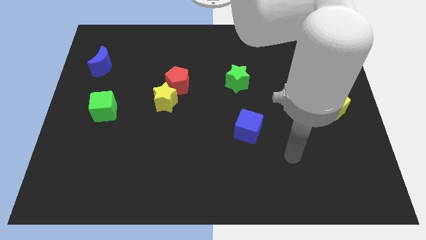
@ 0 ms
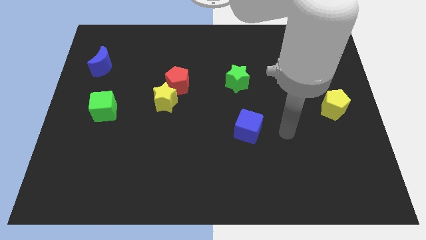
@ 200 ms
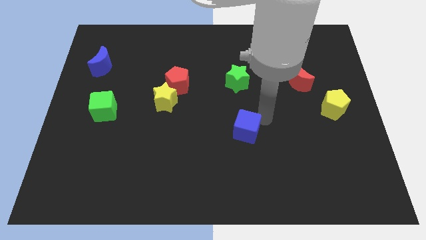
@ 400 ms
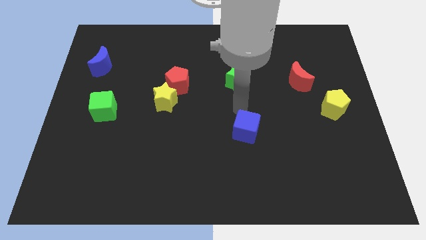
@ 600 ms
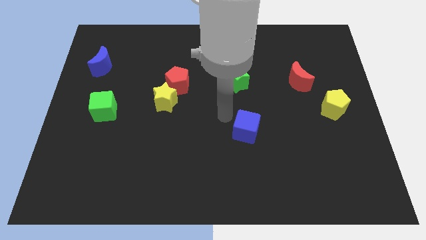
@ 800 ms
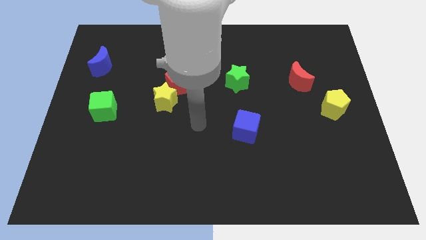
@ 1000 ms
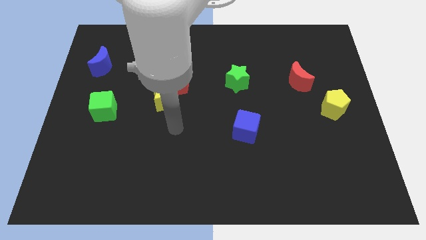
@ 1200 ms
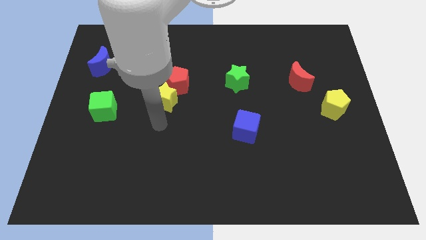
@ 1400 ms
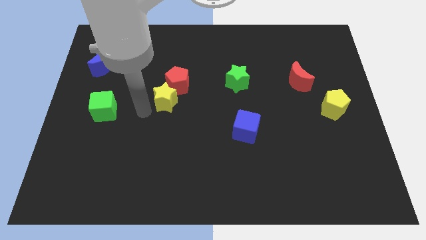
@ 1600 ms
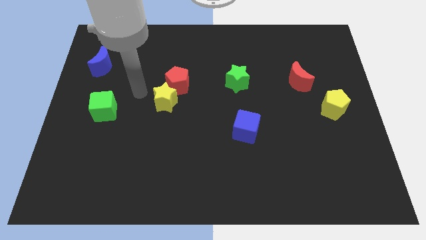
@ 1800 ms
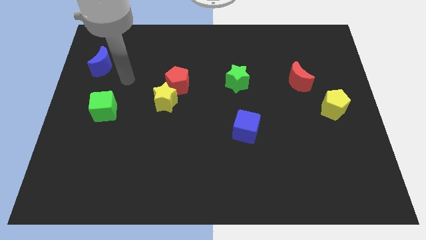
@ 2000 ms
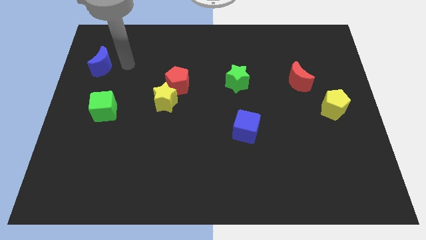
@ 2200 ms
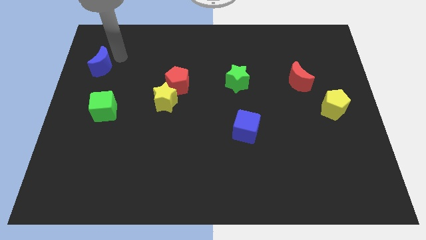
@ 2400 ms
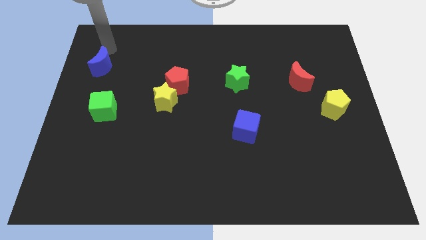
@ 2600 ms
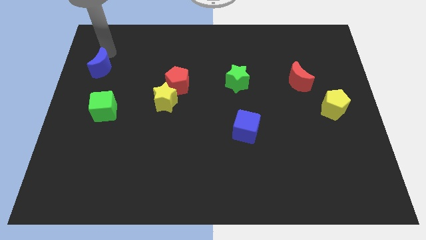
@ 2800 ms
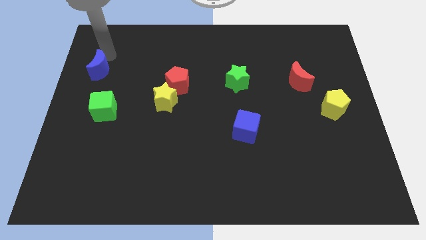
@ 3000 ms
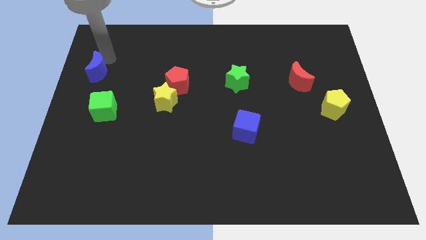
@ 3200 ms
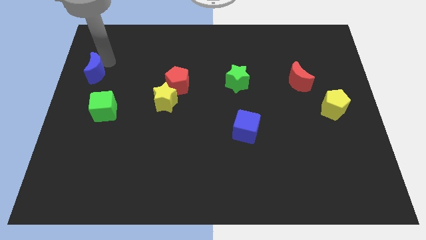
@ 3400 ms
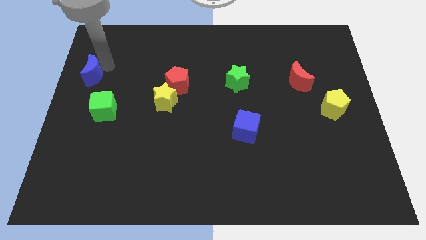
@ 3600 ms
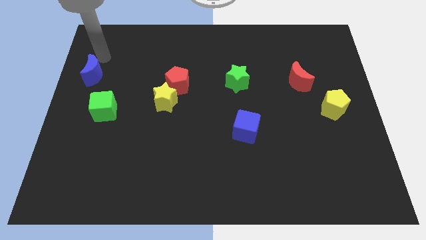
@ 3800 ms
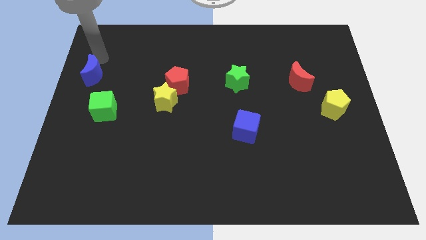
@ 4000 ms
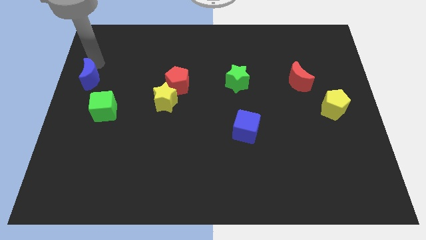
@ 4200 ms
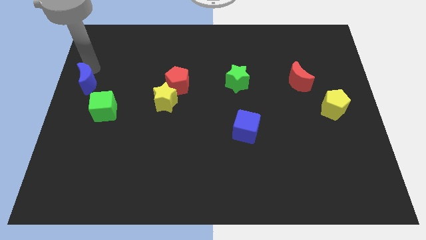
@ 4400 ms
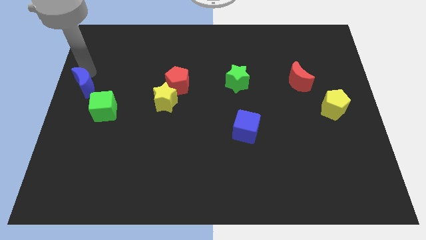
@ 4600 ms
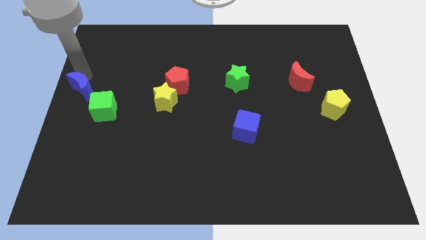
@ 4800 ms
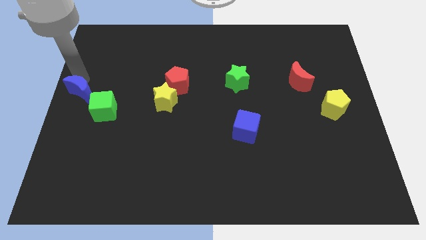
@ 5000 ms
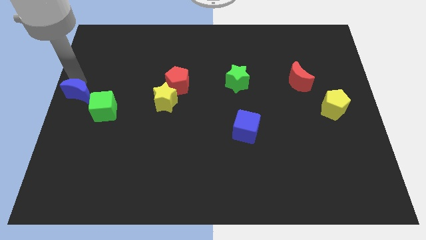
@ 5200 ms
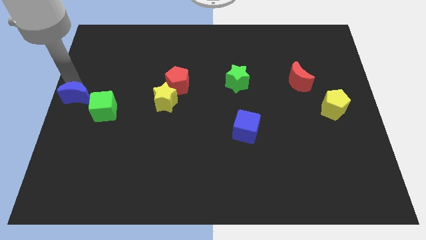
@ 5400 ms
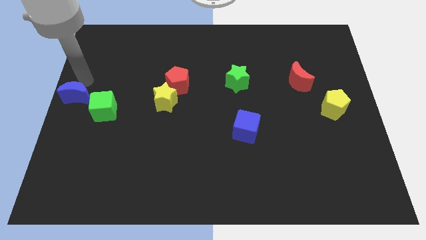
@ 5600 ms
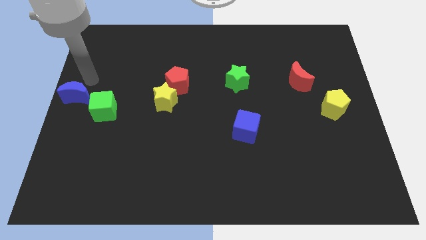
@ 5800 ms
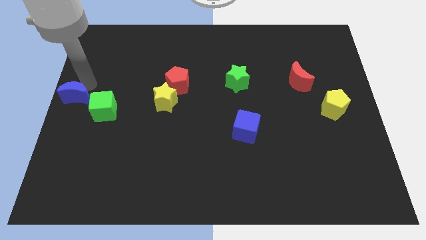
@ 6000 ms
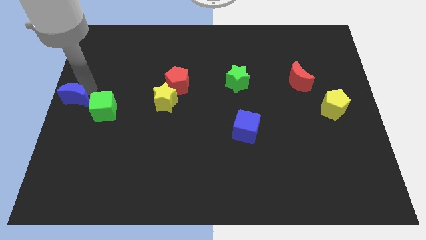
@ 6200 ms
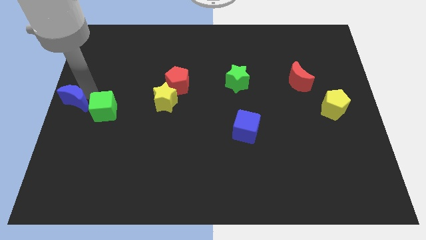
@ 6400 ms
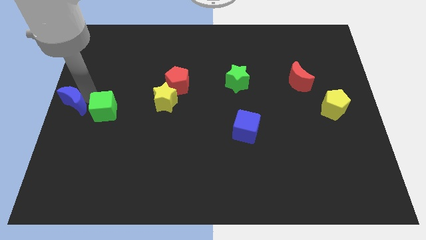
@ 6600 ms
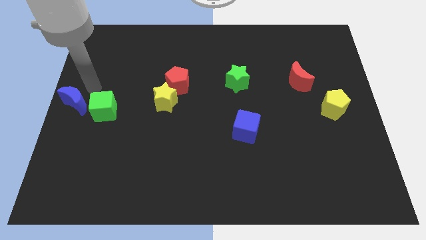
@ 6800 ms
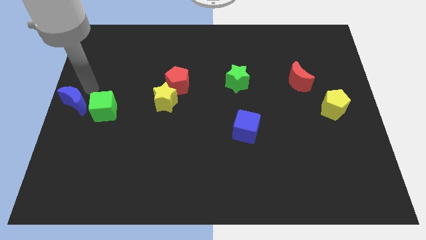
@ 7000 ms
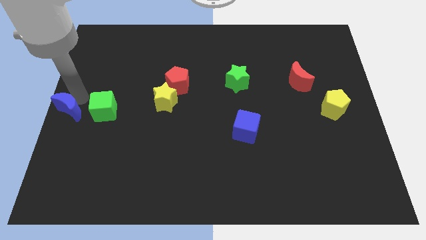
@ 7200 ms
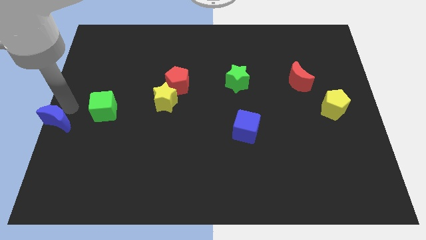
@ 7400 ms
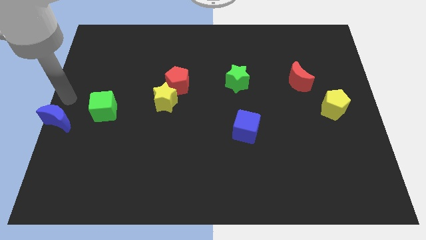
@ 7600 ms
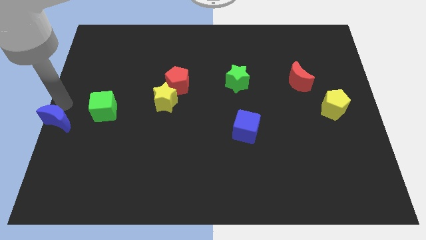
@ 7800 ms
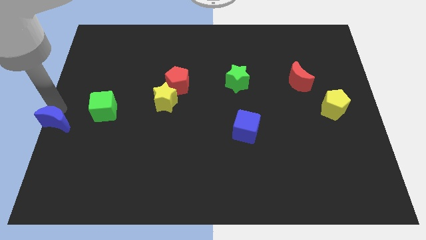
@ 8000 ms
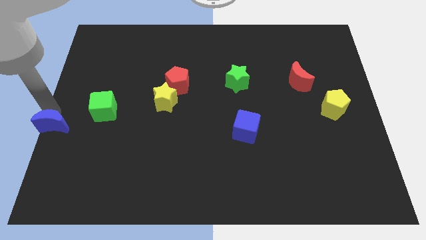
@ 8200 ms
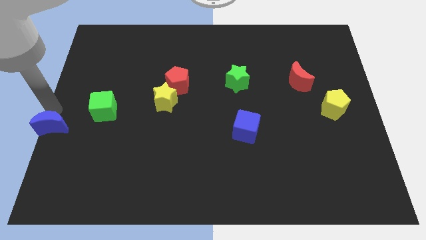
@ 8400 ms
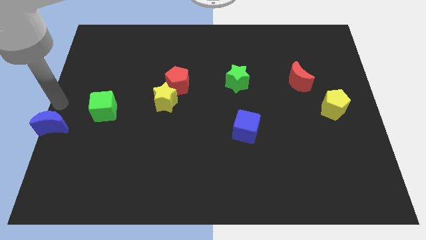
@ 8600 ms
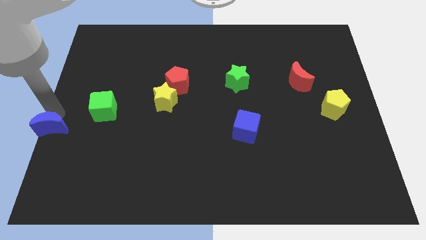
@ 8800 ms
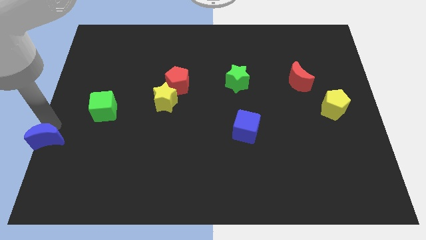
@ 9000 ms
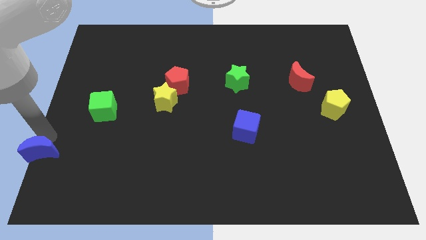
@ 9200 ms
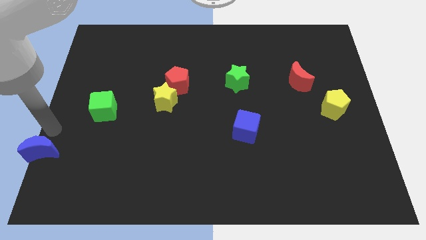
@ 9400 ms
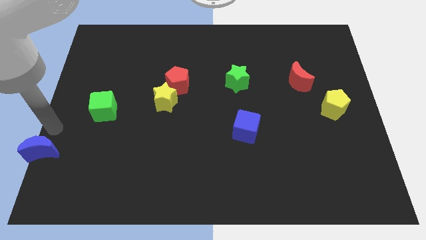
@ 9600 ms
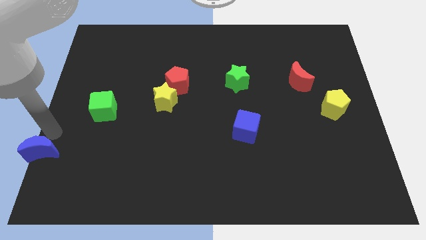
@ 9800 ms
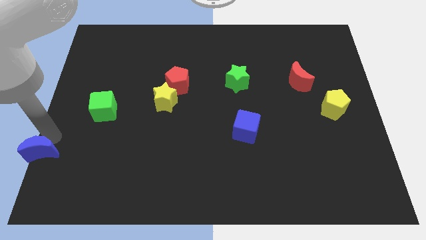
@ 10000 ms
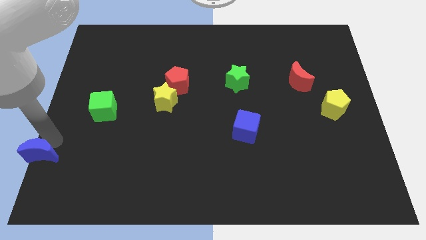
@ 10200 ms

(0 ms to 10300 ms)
put the blue moon to the bottom left corner

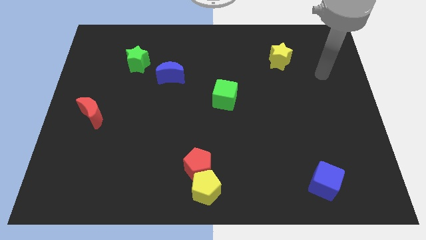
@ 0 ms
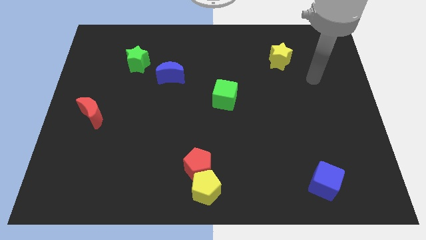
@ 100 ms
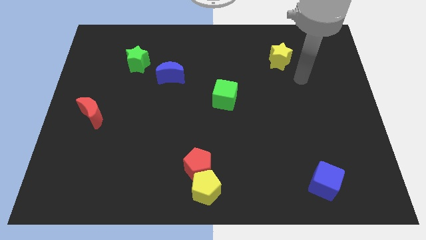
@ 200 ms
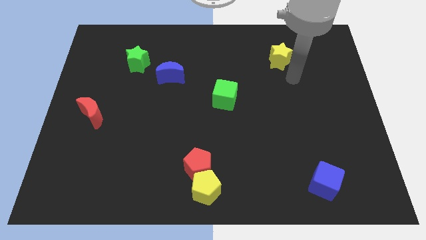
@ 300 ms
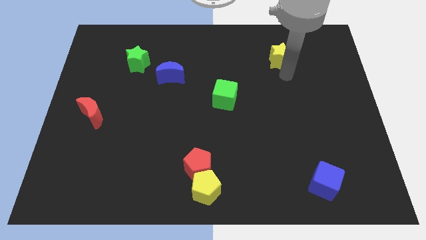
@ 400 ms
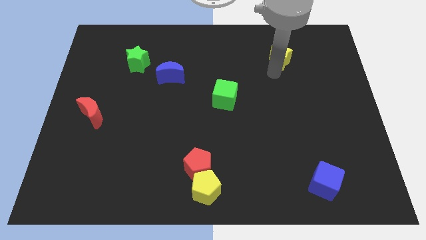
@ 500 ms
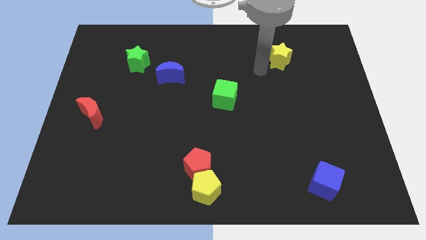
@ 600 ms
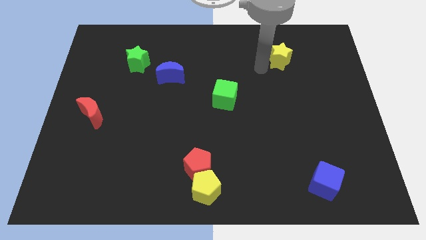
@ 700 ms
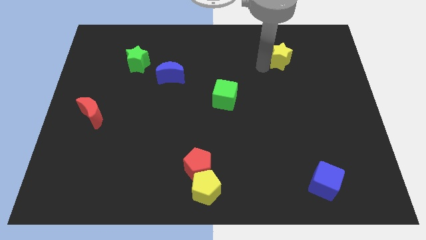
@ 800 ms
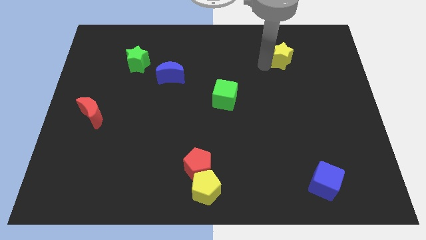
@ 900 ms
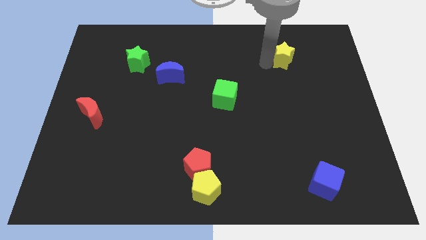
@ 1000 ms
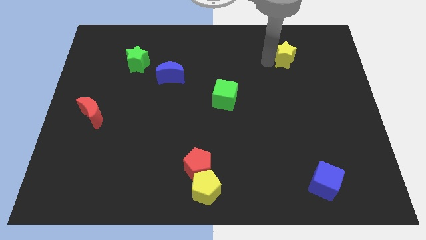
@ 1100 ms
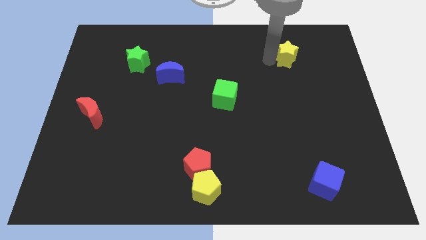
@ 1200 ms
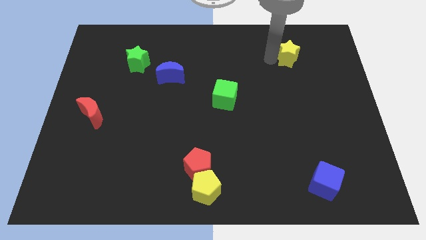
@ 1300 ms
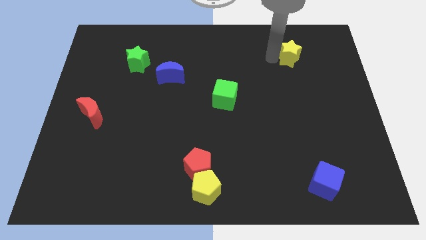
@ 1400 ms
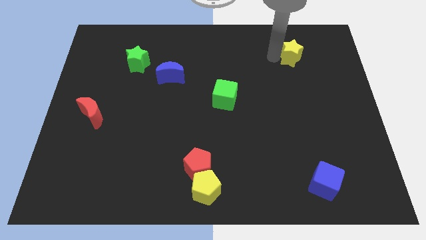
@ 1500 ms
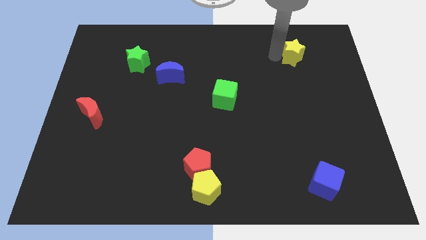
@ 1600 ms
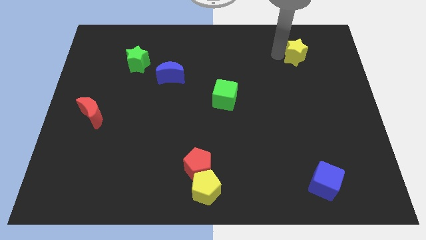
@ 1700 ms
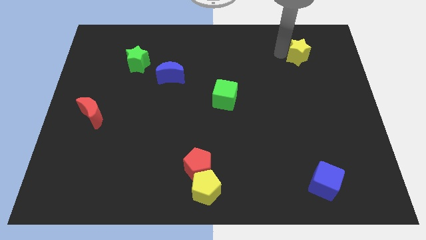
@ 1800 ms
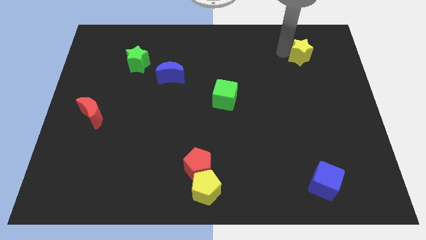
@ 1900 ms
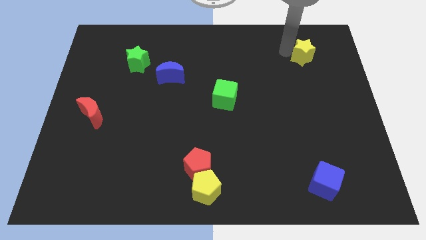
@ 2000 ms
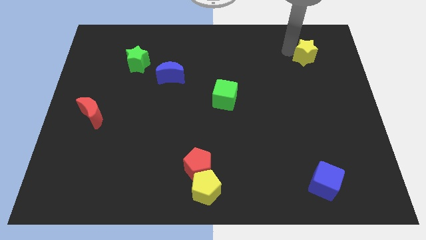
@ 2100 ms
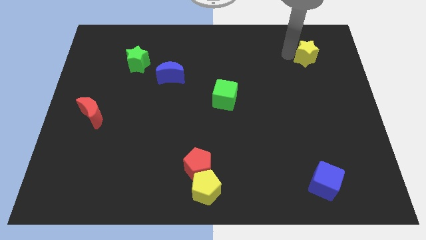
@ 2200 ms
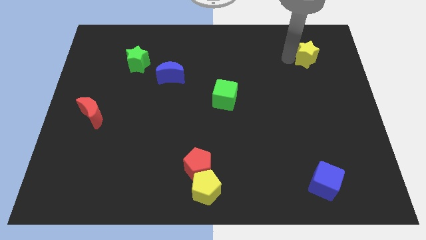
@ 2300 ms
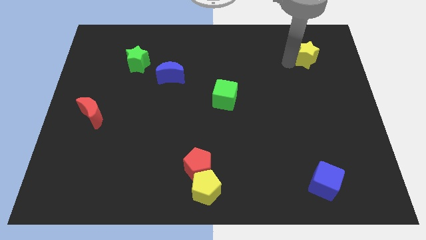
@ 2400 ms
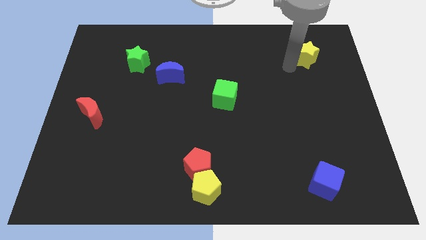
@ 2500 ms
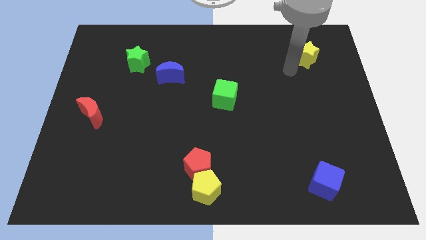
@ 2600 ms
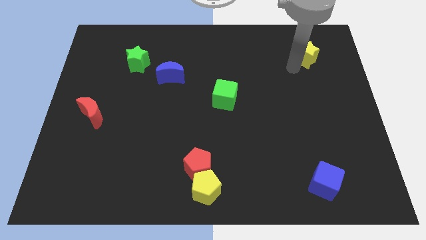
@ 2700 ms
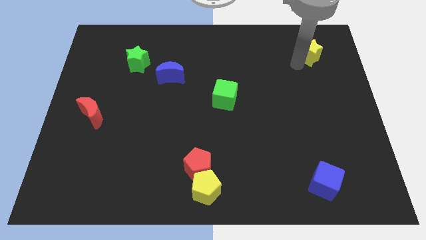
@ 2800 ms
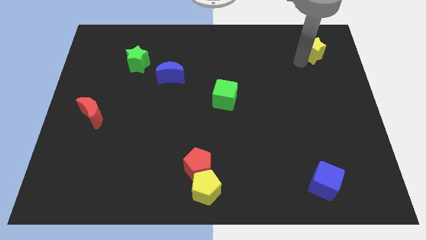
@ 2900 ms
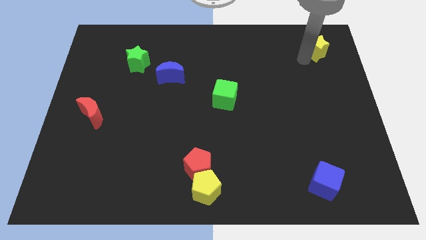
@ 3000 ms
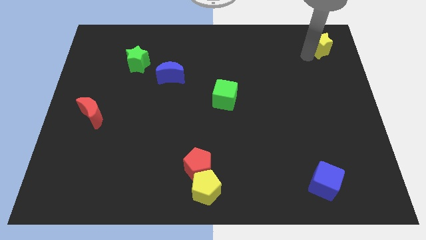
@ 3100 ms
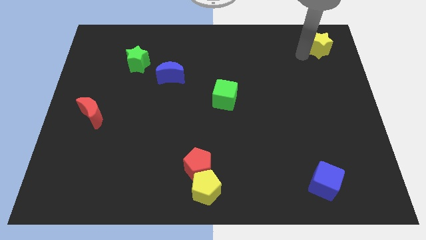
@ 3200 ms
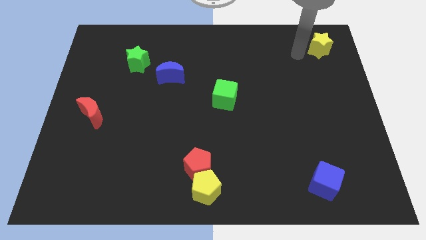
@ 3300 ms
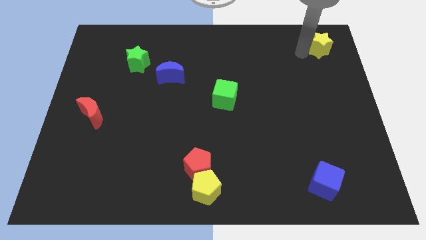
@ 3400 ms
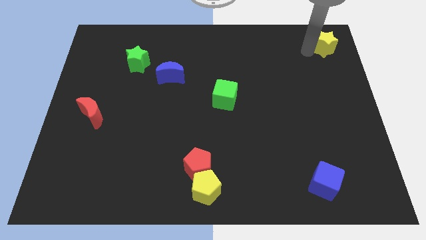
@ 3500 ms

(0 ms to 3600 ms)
push the yellow star to the top right corner
